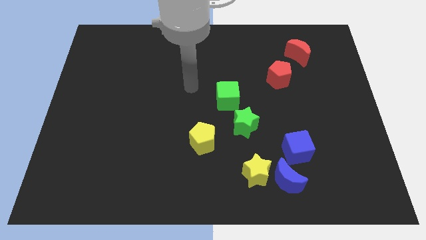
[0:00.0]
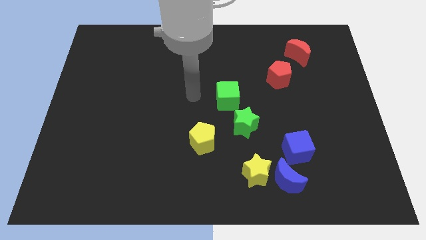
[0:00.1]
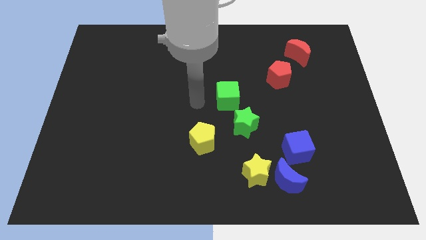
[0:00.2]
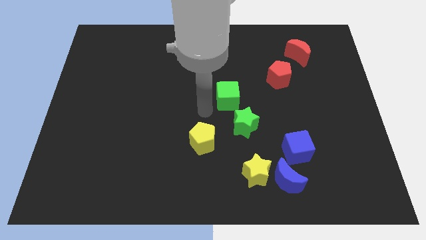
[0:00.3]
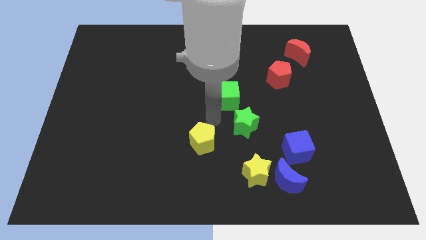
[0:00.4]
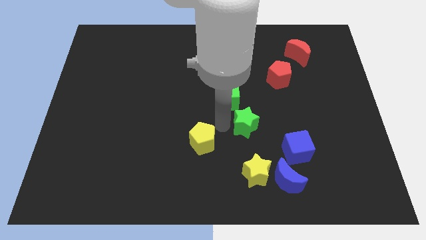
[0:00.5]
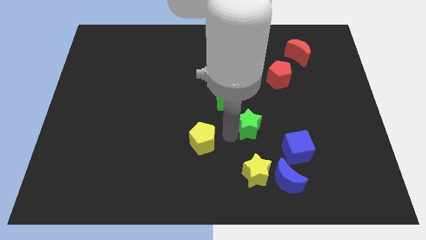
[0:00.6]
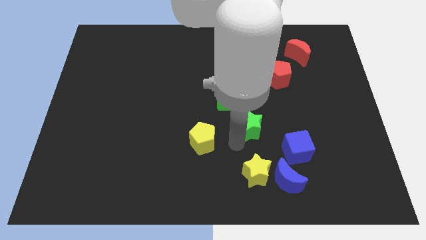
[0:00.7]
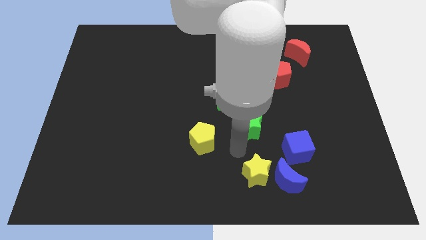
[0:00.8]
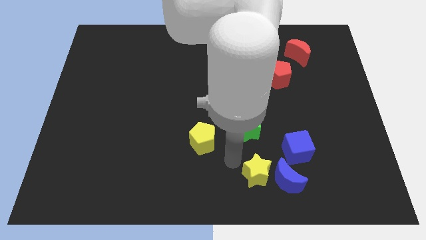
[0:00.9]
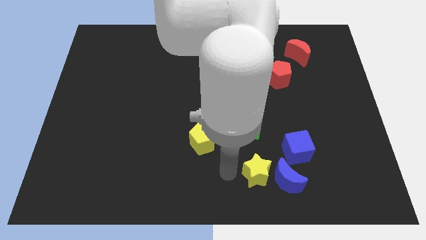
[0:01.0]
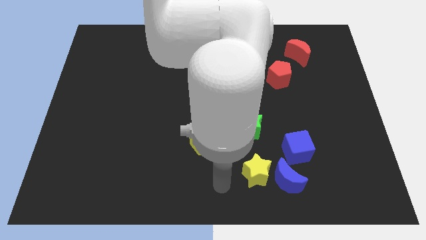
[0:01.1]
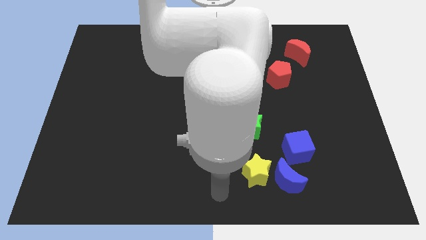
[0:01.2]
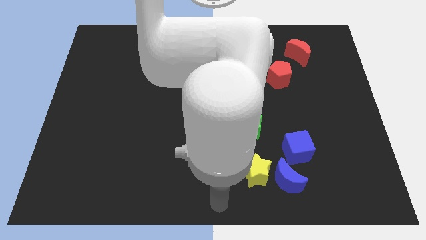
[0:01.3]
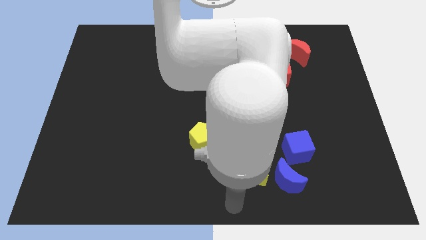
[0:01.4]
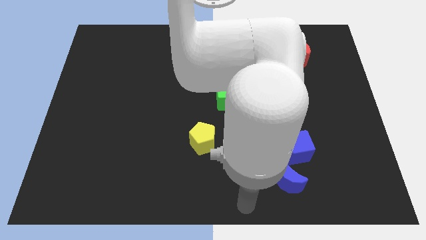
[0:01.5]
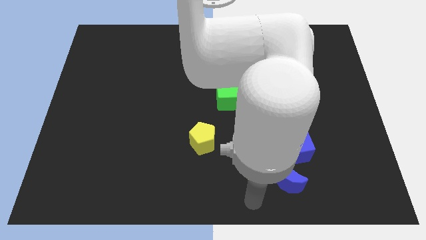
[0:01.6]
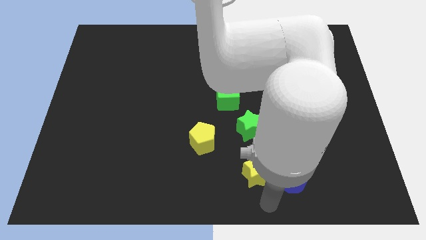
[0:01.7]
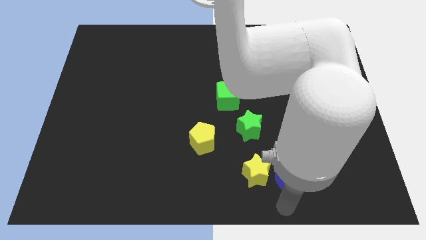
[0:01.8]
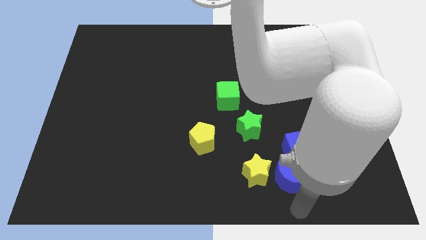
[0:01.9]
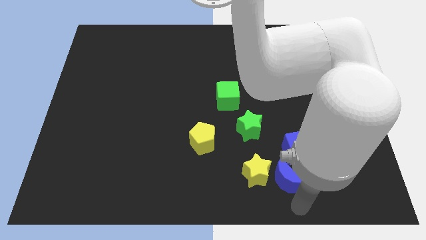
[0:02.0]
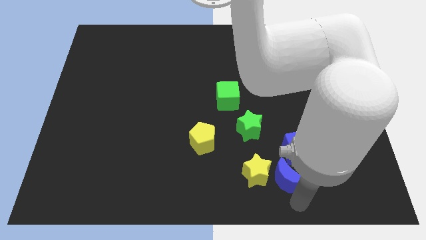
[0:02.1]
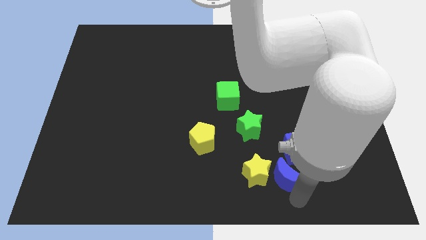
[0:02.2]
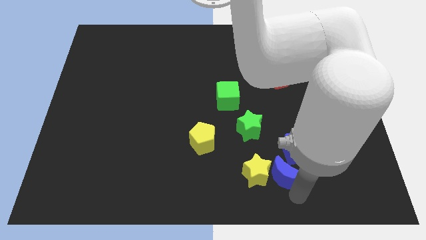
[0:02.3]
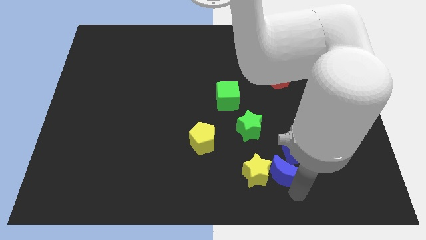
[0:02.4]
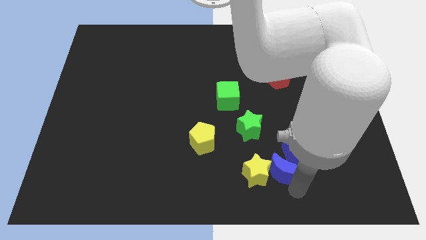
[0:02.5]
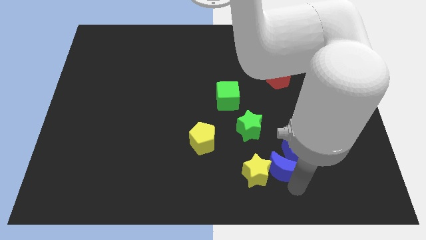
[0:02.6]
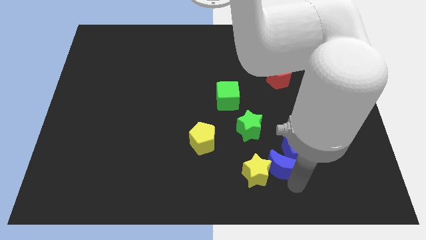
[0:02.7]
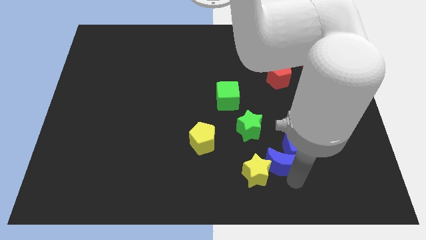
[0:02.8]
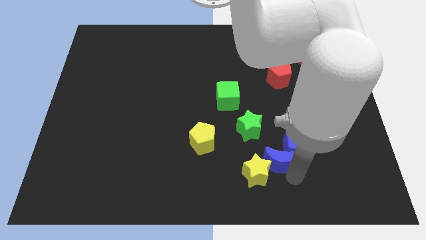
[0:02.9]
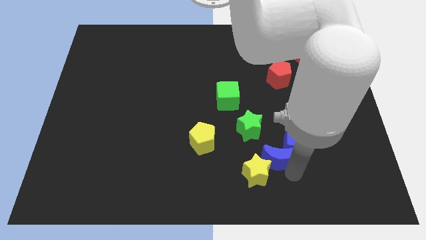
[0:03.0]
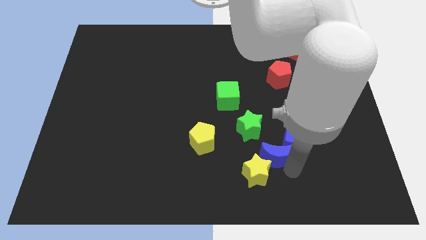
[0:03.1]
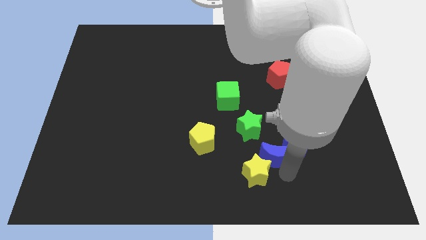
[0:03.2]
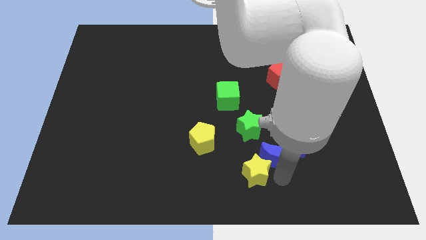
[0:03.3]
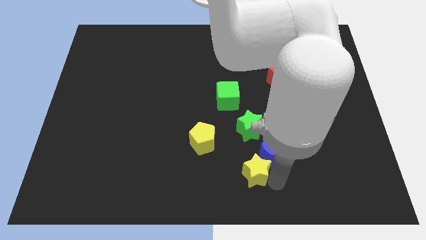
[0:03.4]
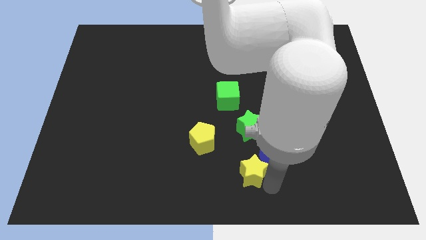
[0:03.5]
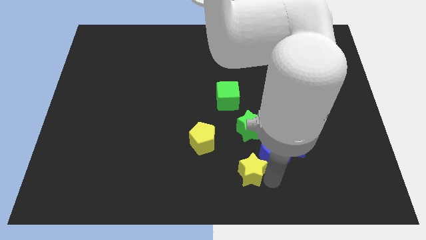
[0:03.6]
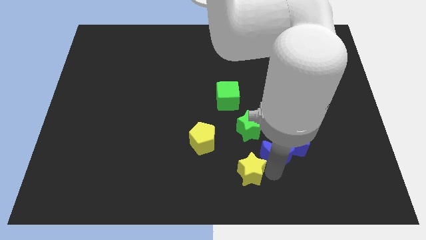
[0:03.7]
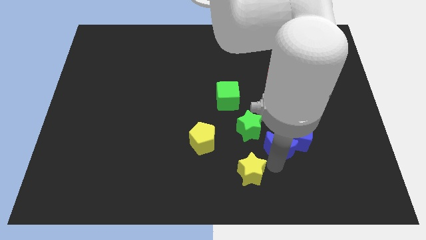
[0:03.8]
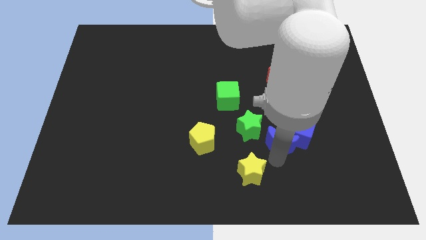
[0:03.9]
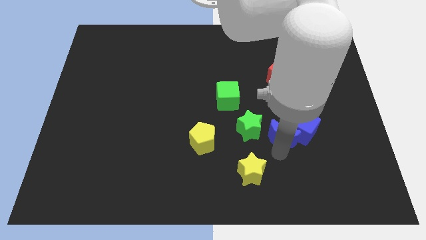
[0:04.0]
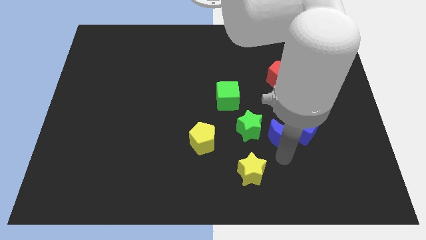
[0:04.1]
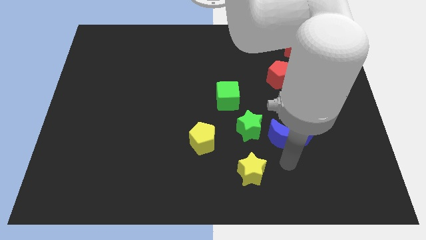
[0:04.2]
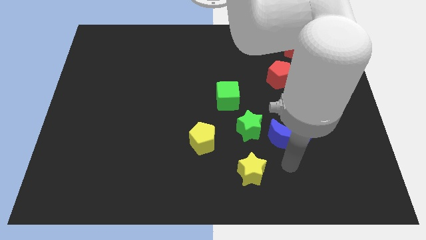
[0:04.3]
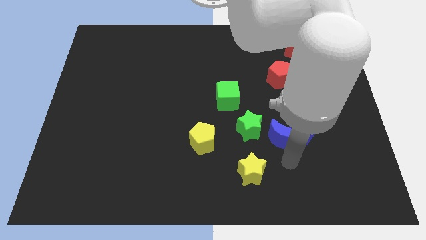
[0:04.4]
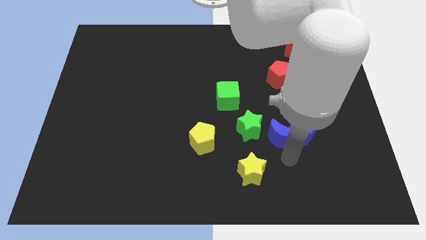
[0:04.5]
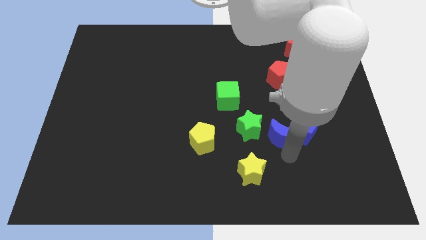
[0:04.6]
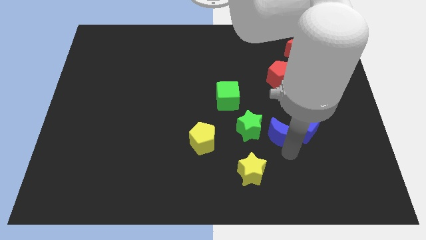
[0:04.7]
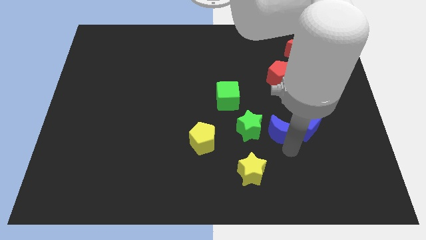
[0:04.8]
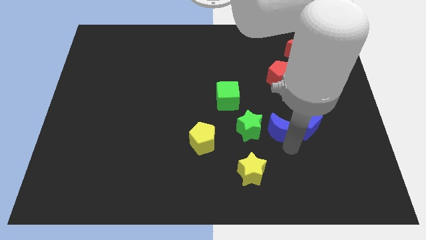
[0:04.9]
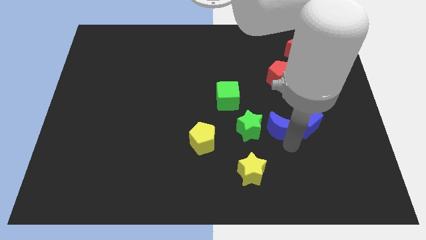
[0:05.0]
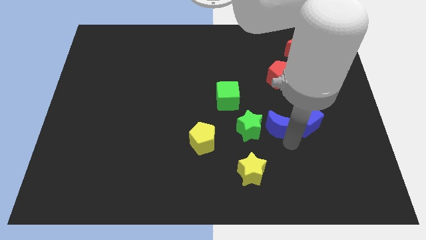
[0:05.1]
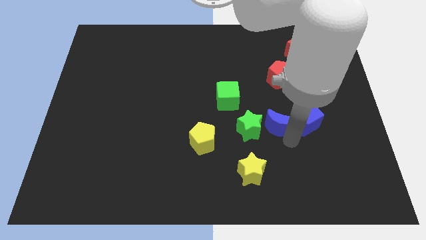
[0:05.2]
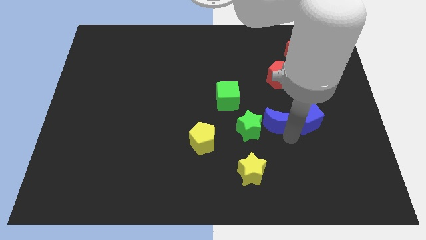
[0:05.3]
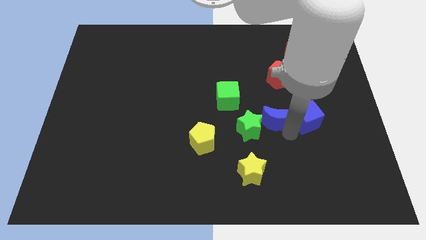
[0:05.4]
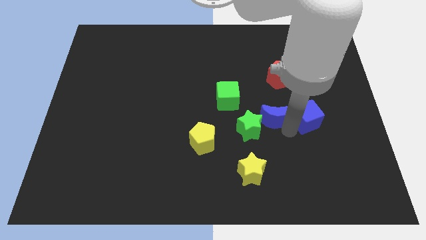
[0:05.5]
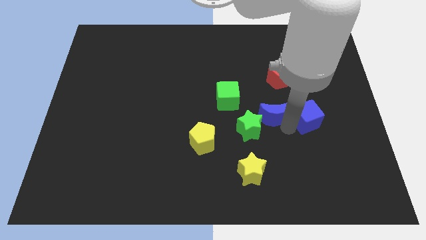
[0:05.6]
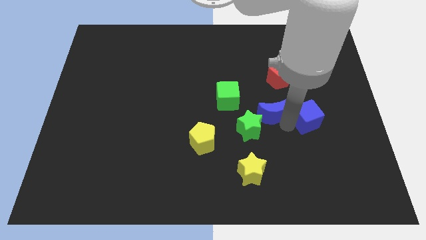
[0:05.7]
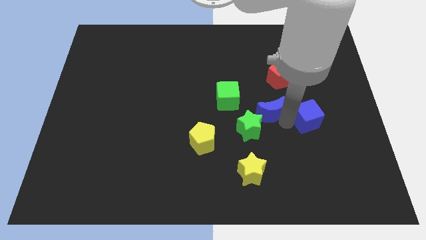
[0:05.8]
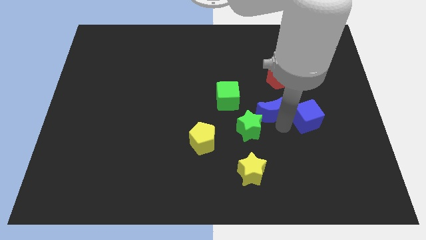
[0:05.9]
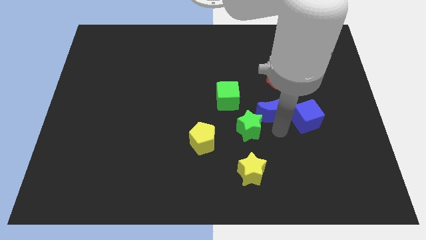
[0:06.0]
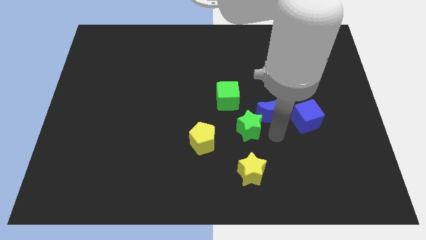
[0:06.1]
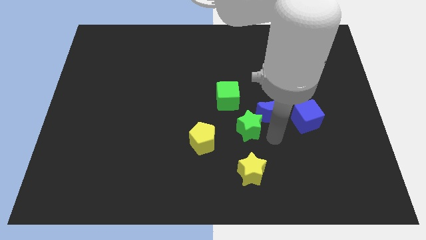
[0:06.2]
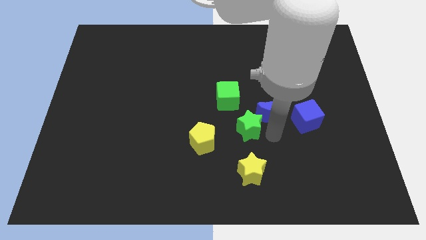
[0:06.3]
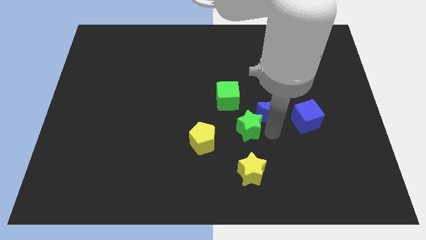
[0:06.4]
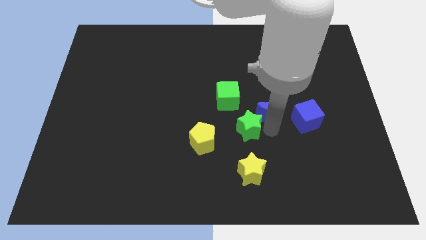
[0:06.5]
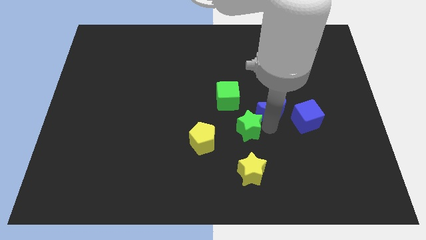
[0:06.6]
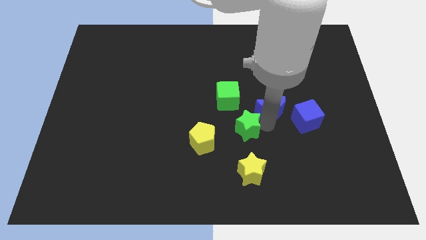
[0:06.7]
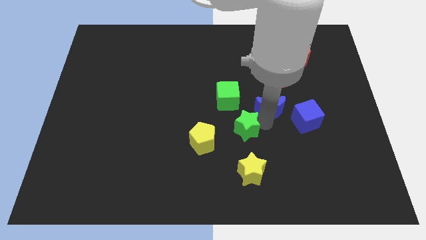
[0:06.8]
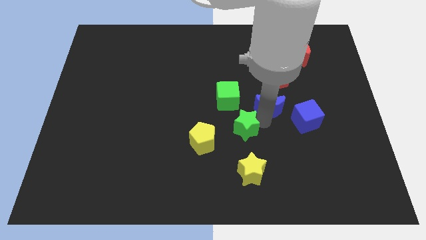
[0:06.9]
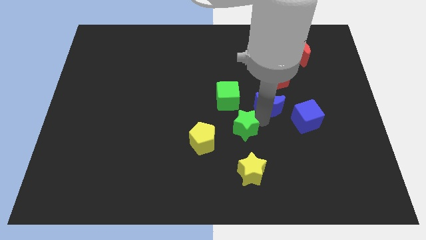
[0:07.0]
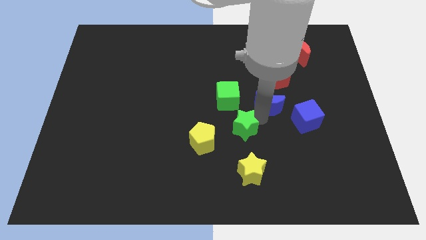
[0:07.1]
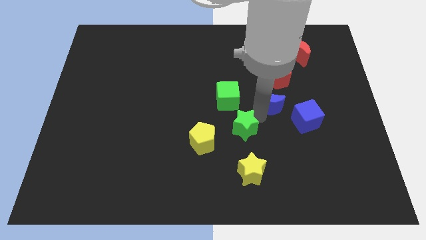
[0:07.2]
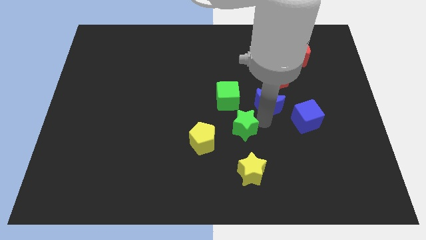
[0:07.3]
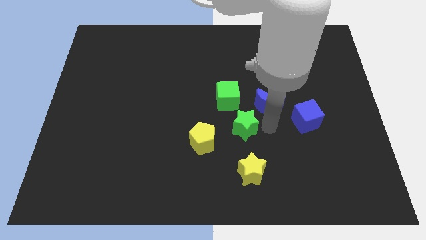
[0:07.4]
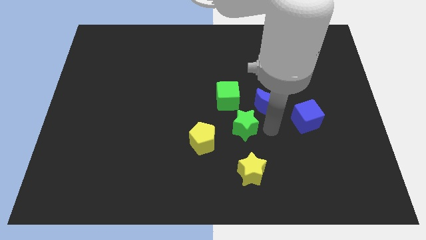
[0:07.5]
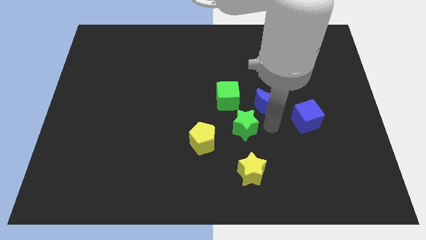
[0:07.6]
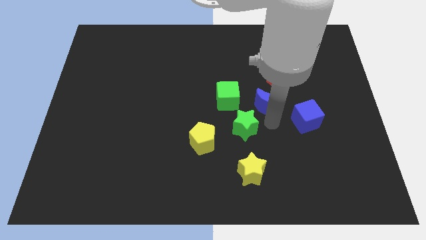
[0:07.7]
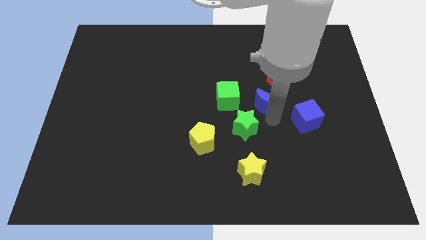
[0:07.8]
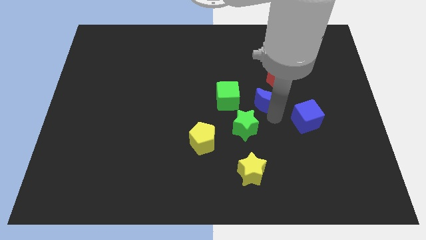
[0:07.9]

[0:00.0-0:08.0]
push the blue moon up
